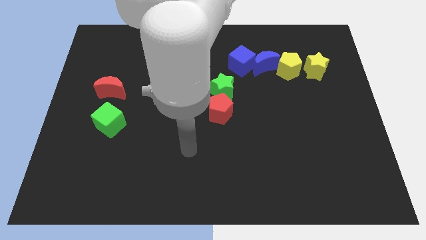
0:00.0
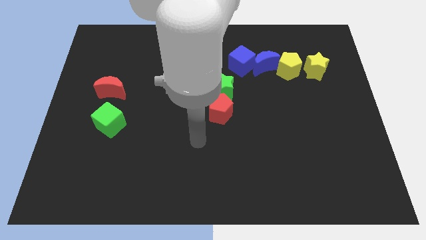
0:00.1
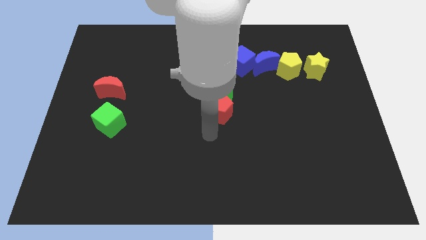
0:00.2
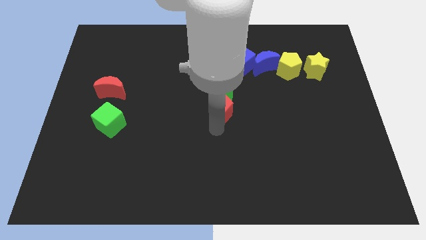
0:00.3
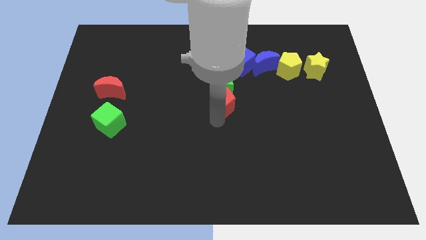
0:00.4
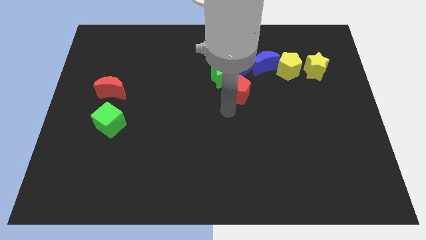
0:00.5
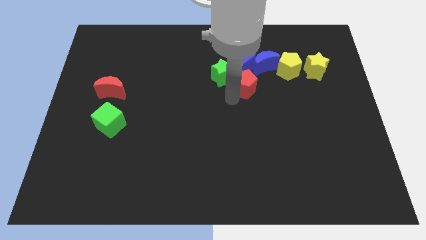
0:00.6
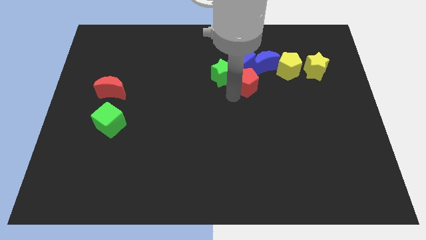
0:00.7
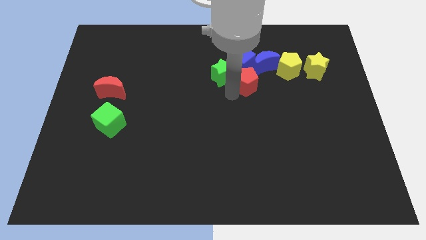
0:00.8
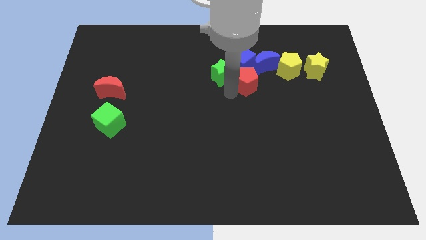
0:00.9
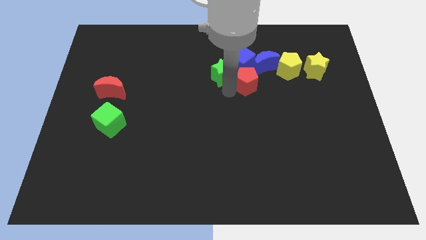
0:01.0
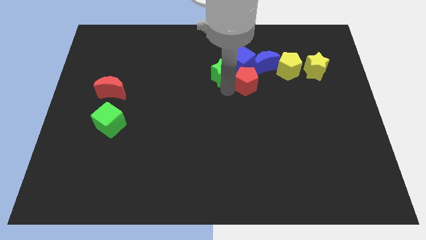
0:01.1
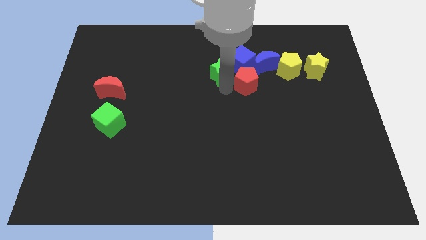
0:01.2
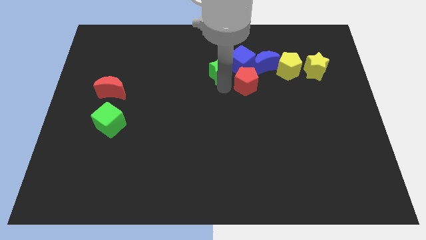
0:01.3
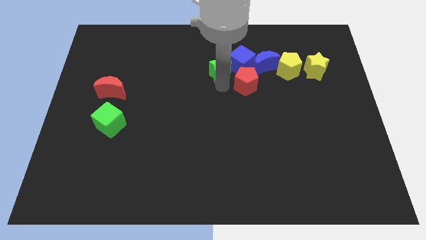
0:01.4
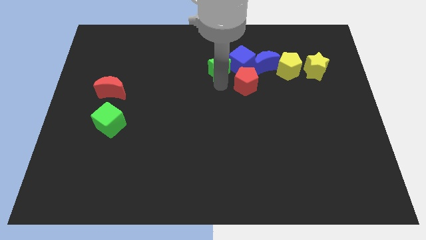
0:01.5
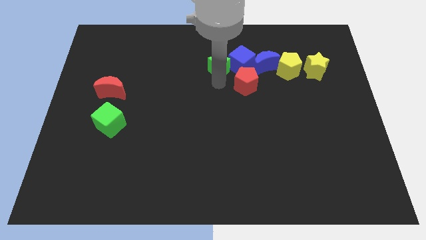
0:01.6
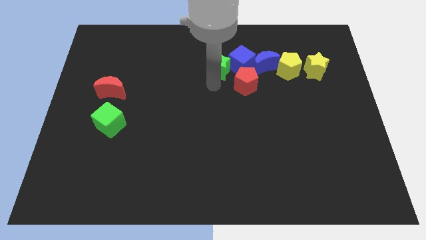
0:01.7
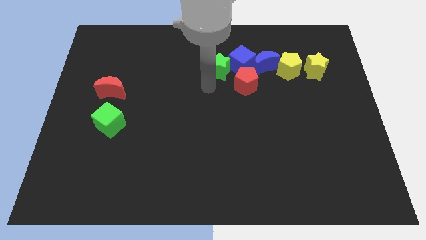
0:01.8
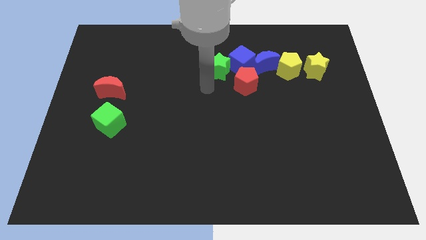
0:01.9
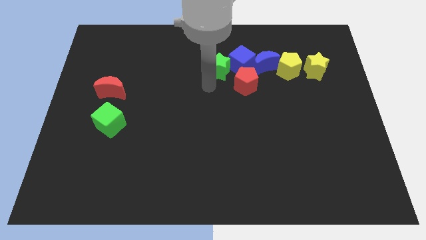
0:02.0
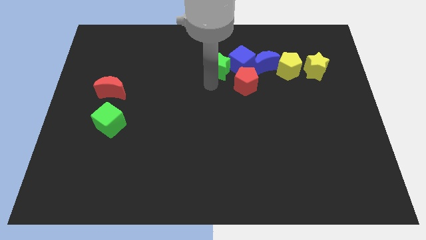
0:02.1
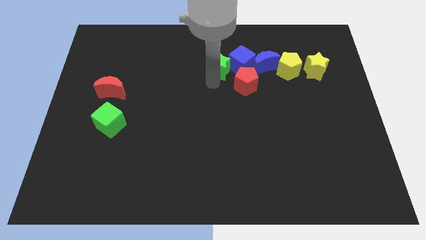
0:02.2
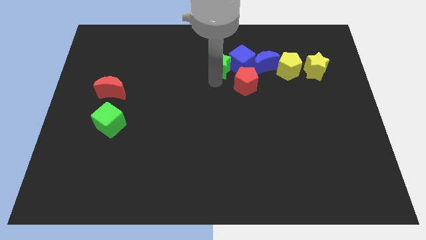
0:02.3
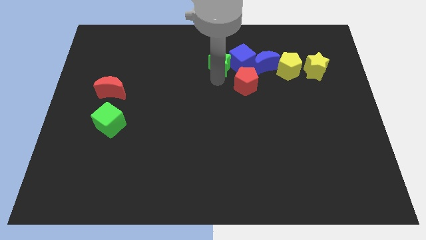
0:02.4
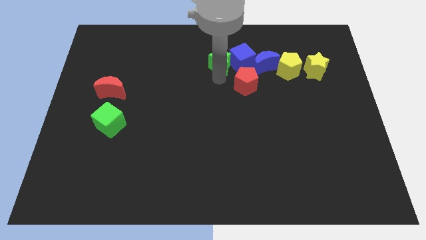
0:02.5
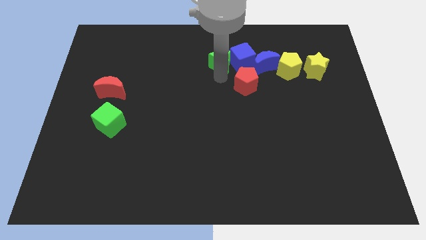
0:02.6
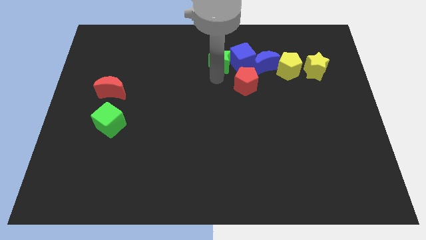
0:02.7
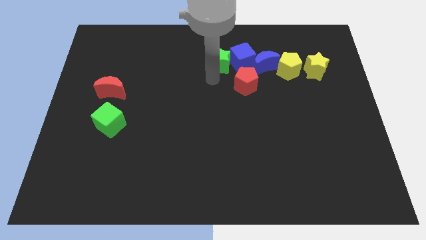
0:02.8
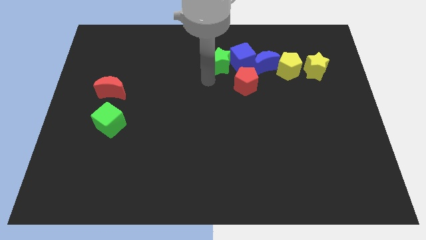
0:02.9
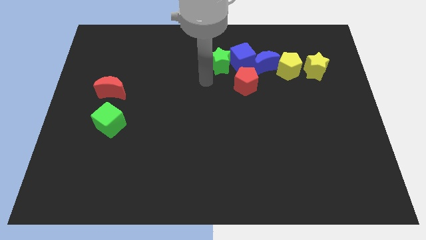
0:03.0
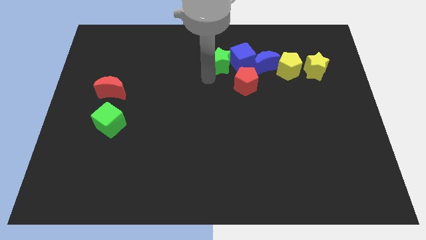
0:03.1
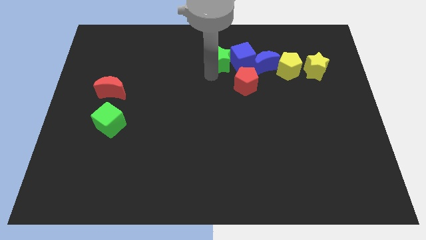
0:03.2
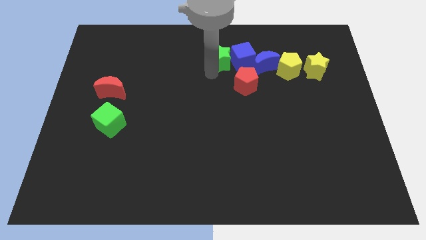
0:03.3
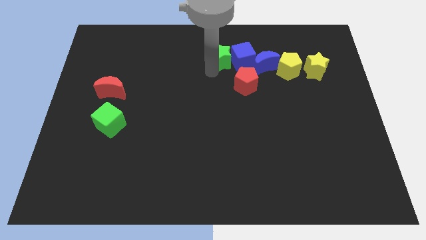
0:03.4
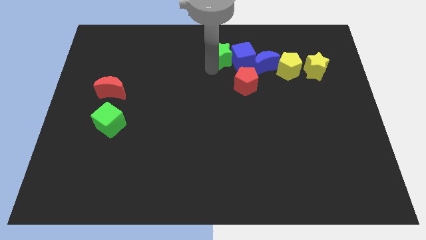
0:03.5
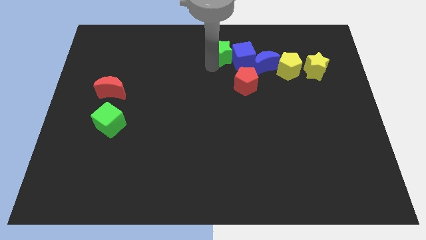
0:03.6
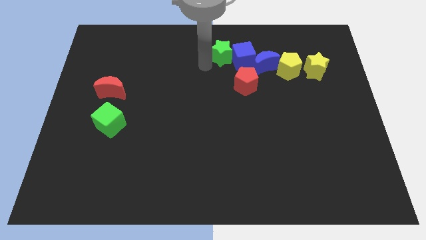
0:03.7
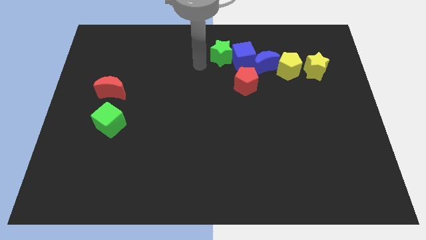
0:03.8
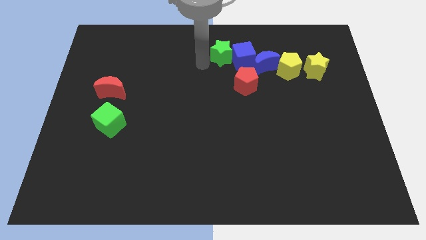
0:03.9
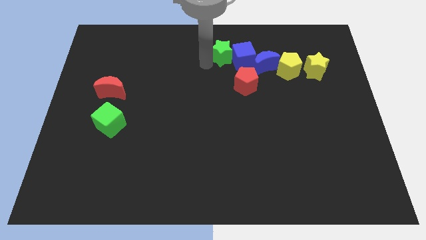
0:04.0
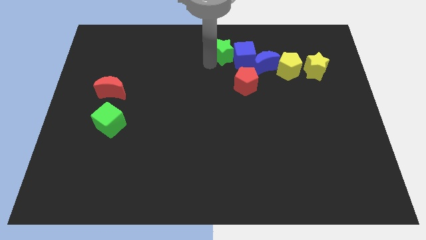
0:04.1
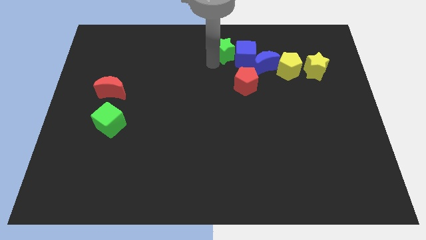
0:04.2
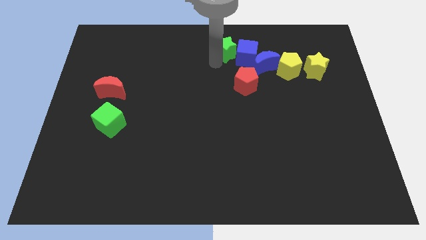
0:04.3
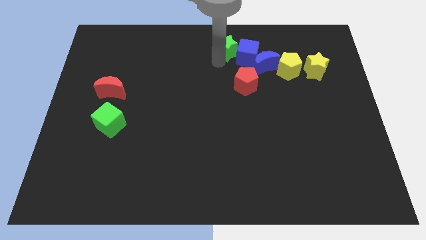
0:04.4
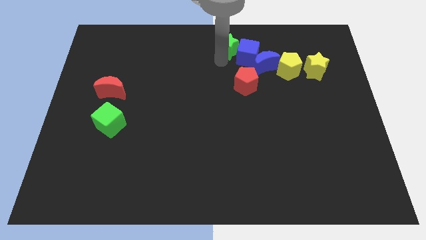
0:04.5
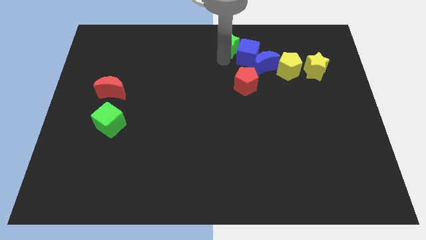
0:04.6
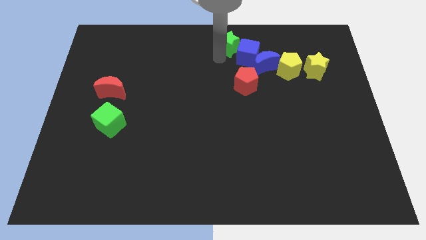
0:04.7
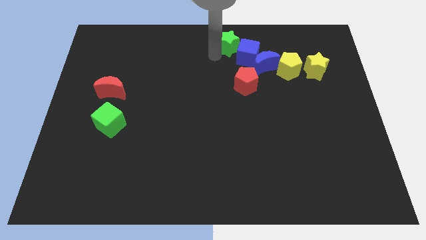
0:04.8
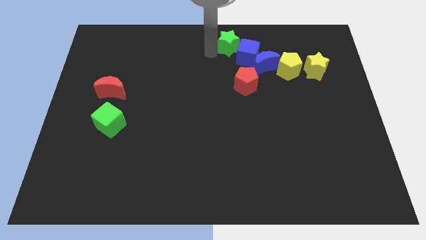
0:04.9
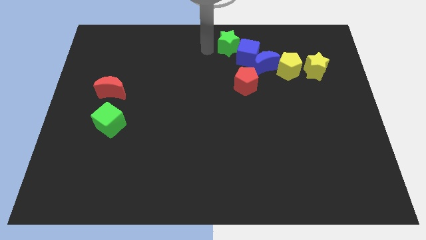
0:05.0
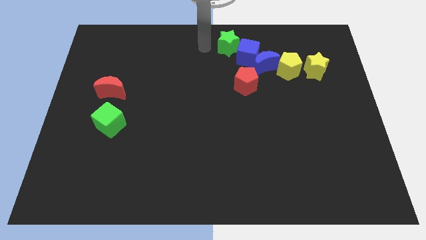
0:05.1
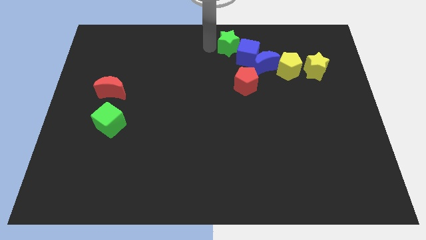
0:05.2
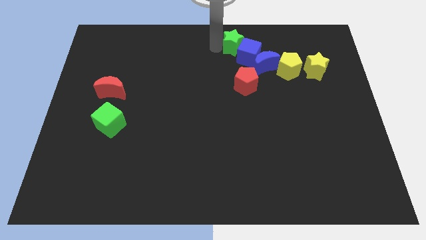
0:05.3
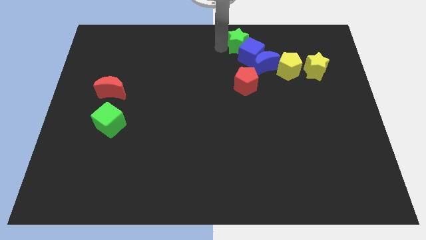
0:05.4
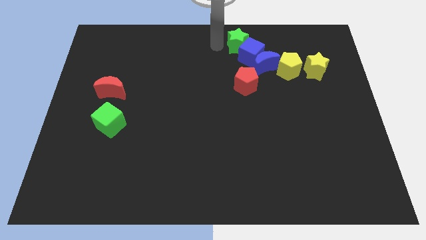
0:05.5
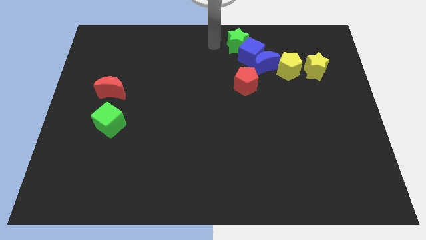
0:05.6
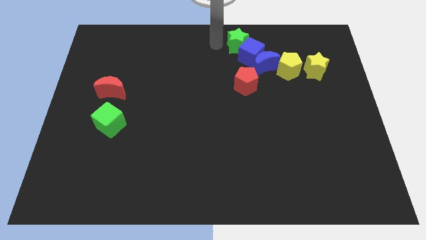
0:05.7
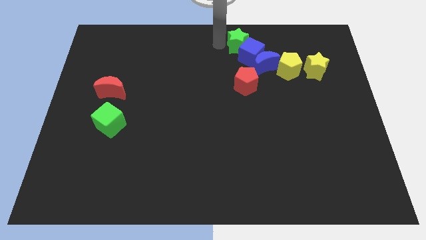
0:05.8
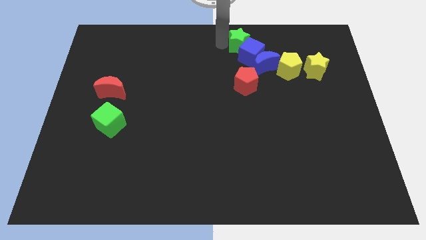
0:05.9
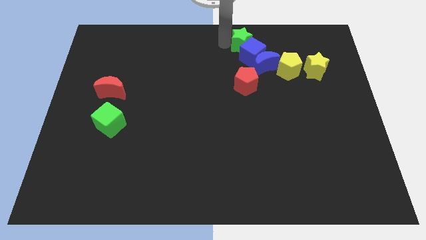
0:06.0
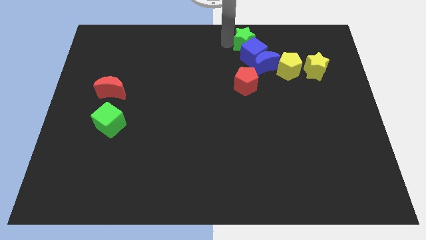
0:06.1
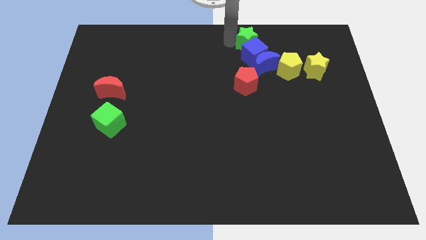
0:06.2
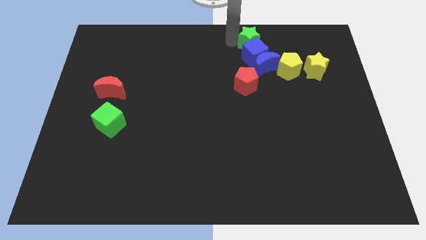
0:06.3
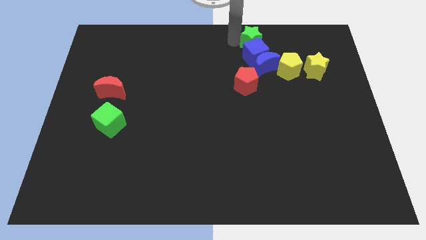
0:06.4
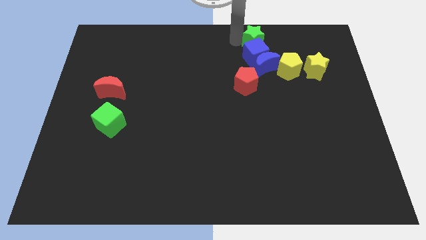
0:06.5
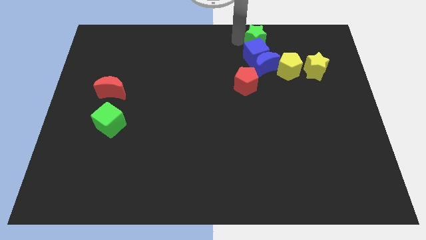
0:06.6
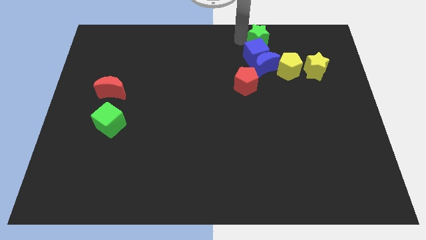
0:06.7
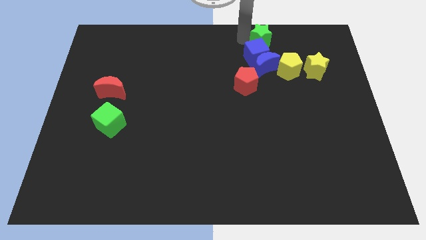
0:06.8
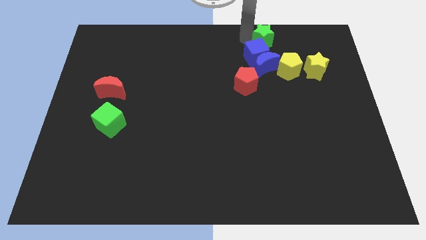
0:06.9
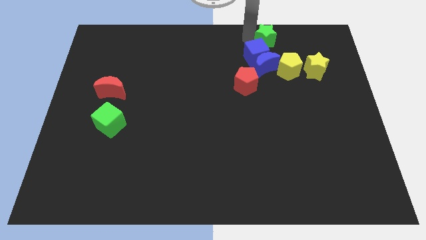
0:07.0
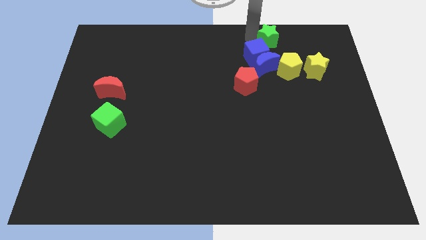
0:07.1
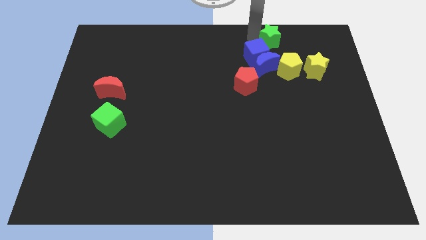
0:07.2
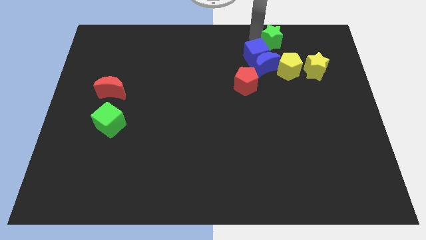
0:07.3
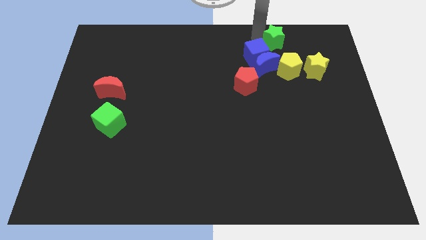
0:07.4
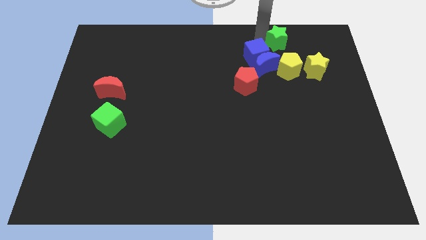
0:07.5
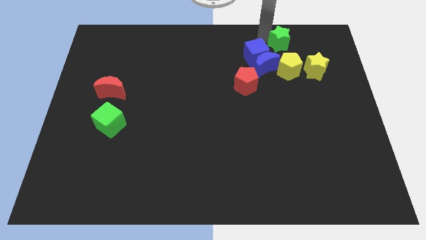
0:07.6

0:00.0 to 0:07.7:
move the green star to the right side of the blue cube
